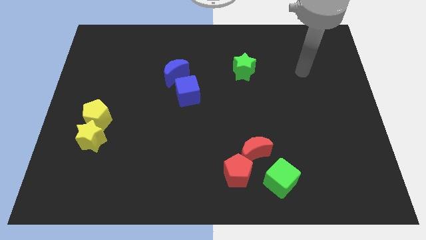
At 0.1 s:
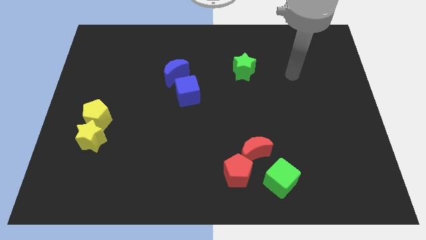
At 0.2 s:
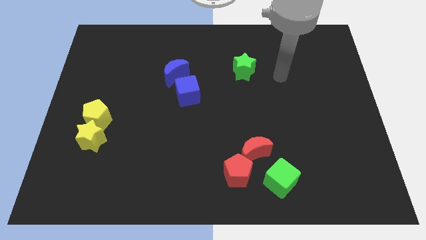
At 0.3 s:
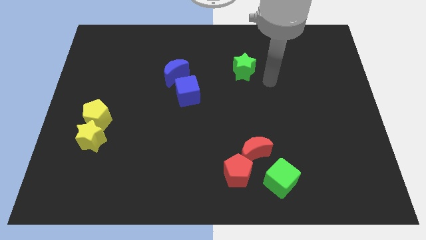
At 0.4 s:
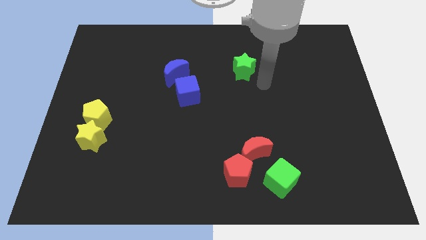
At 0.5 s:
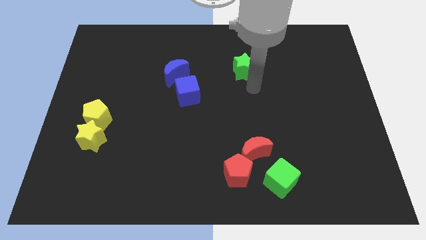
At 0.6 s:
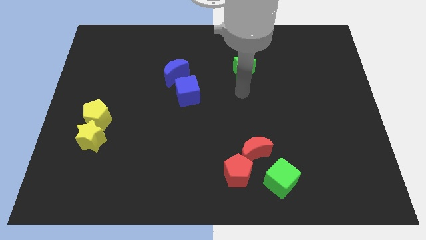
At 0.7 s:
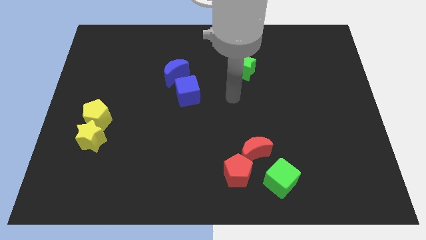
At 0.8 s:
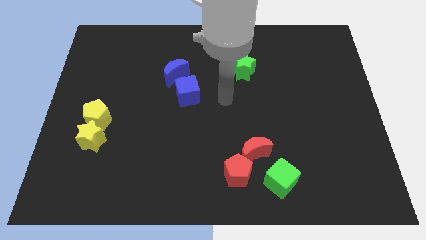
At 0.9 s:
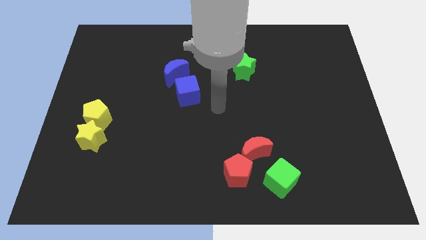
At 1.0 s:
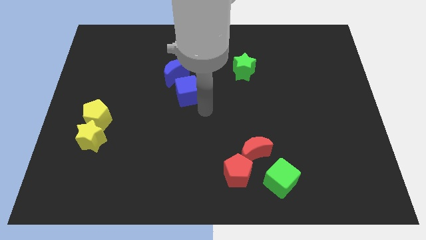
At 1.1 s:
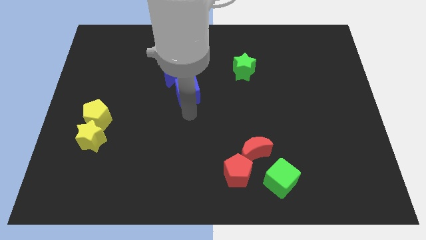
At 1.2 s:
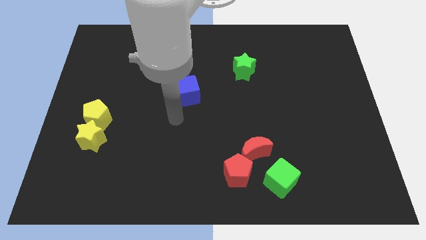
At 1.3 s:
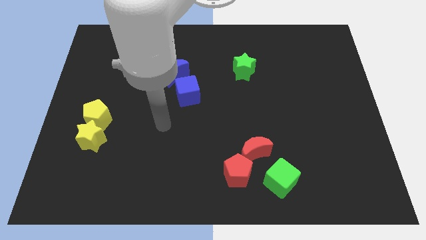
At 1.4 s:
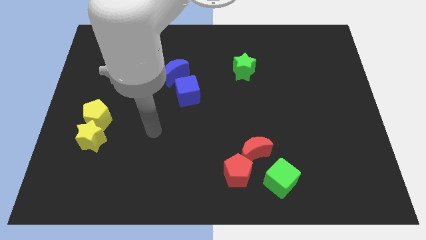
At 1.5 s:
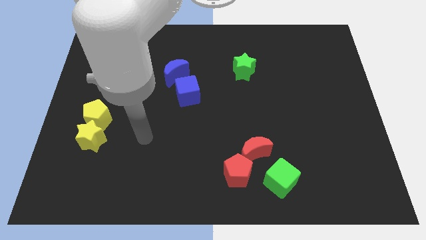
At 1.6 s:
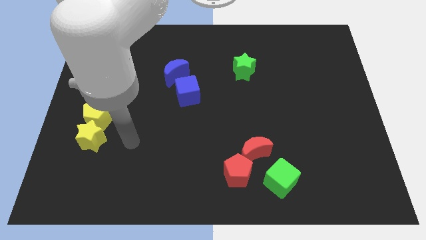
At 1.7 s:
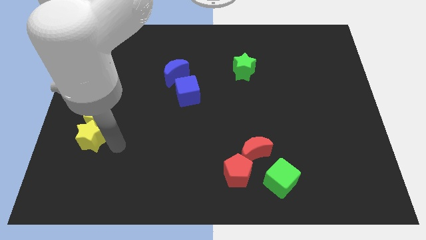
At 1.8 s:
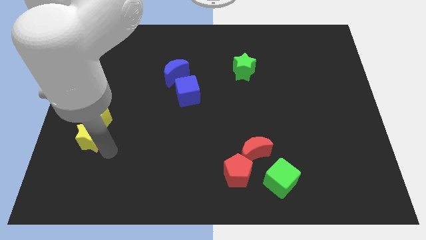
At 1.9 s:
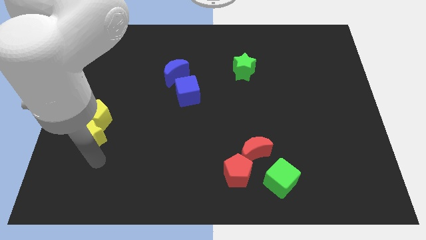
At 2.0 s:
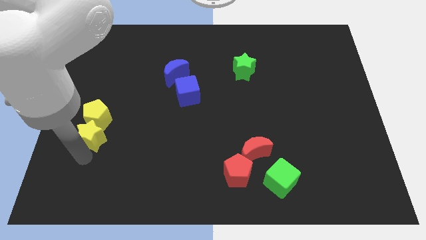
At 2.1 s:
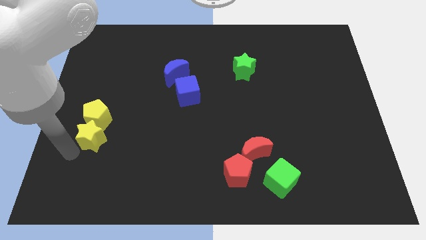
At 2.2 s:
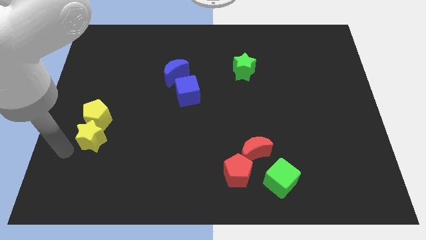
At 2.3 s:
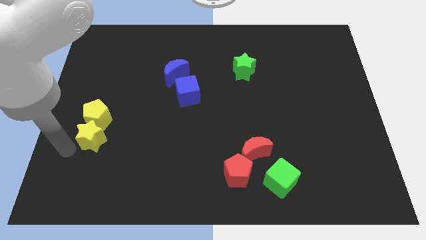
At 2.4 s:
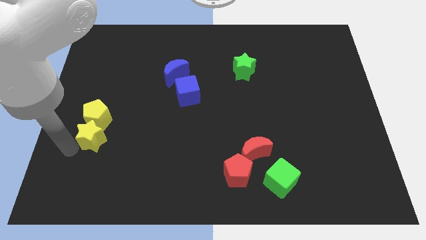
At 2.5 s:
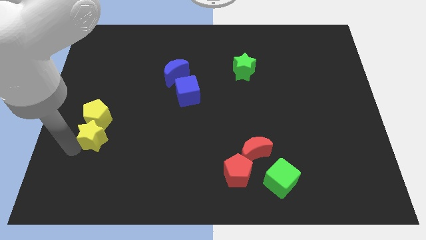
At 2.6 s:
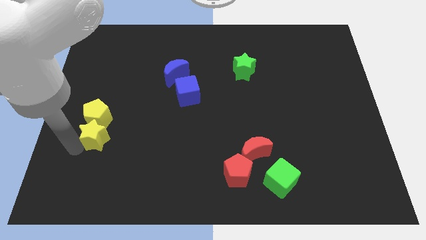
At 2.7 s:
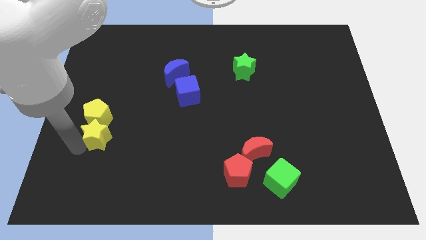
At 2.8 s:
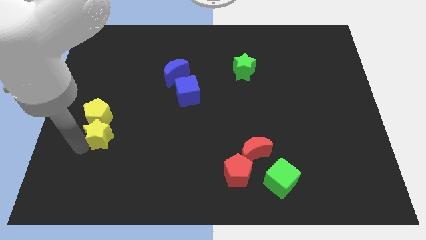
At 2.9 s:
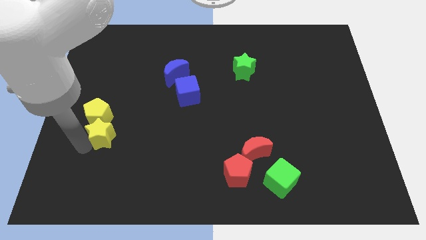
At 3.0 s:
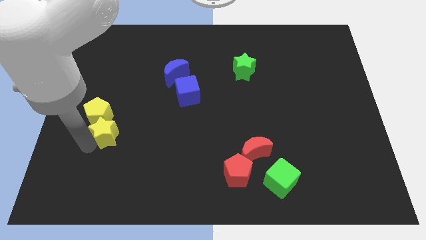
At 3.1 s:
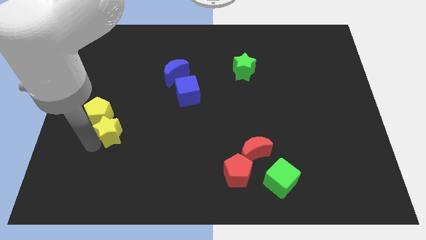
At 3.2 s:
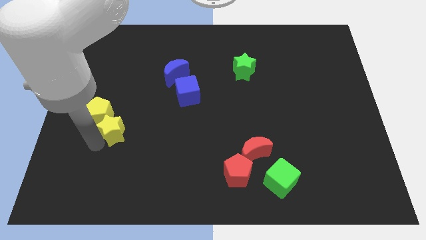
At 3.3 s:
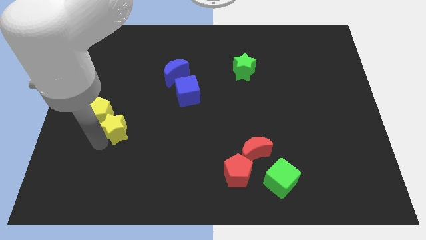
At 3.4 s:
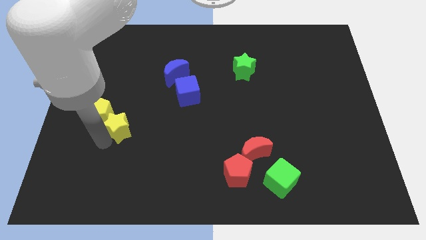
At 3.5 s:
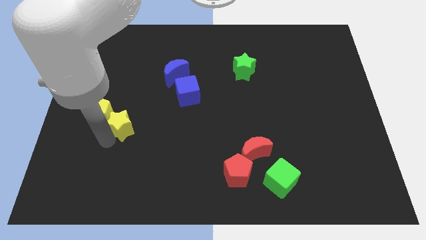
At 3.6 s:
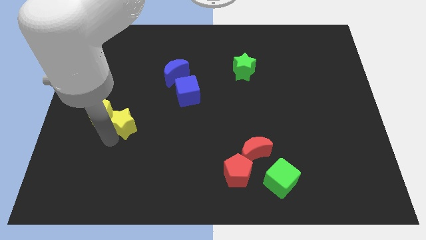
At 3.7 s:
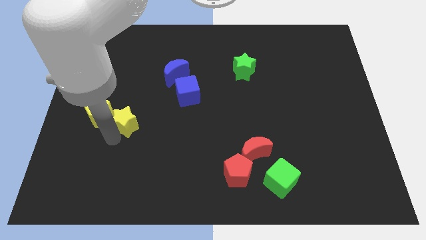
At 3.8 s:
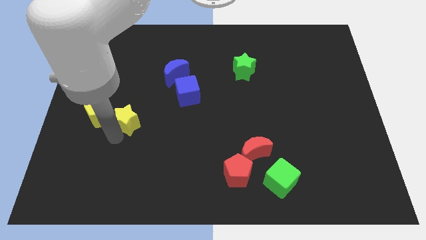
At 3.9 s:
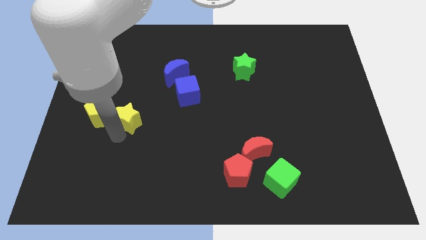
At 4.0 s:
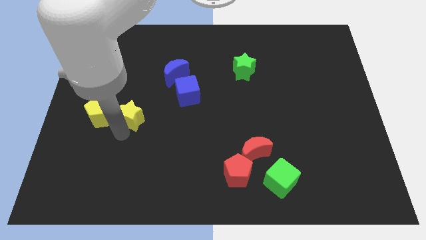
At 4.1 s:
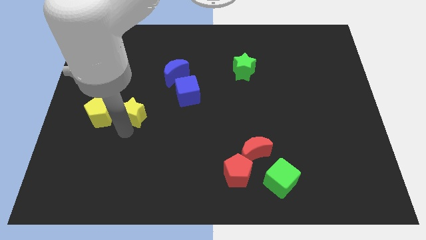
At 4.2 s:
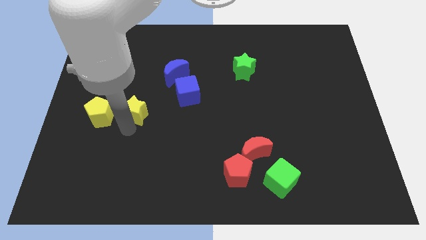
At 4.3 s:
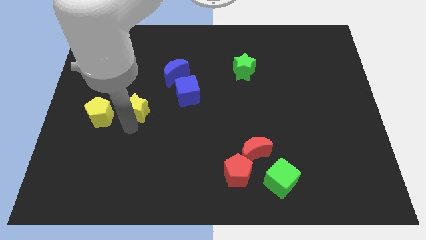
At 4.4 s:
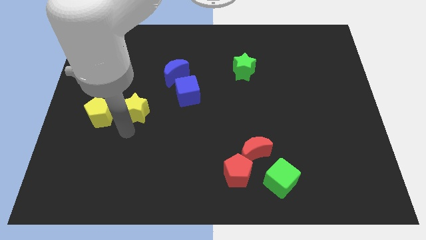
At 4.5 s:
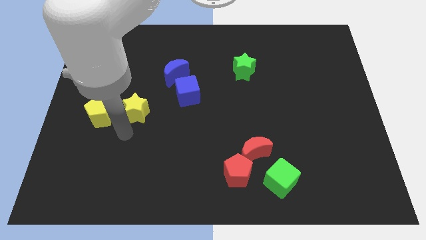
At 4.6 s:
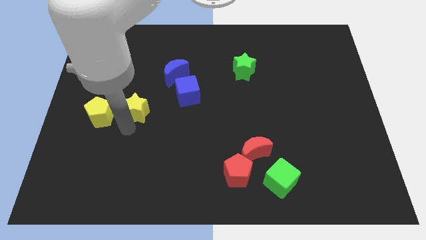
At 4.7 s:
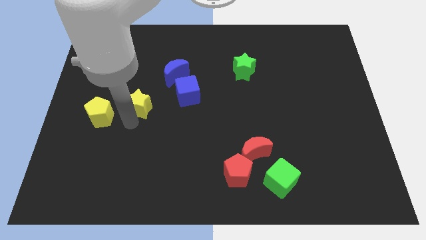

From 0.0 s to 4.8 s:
slide the yellow star just left of the blue cube

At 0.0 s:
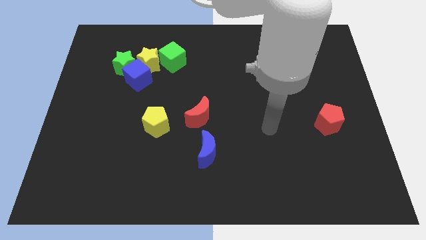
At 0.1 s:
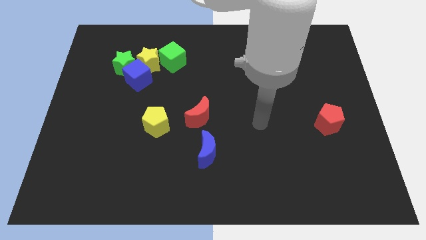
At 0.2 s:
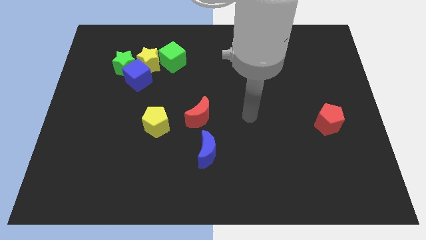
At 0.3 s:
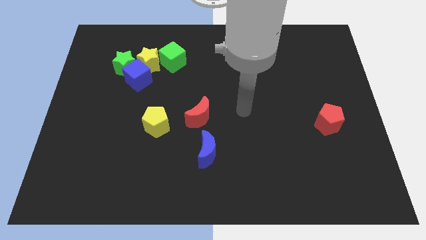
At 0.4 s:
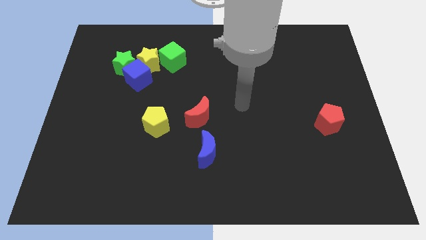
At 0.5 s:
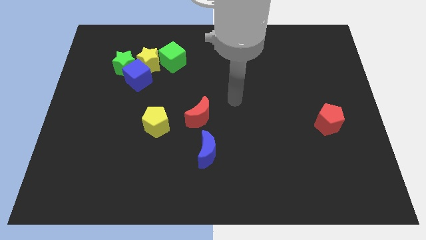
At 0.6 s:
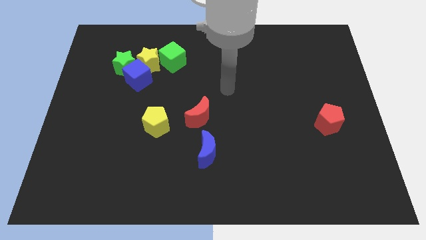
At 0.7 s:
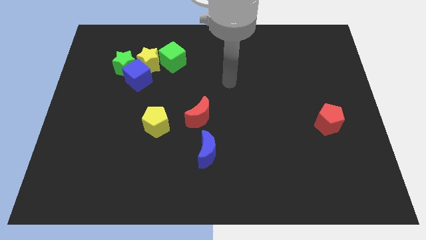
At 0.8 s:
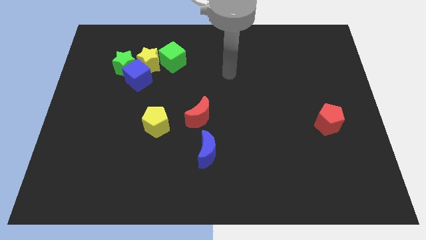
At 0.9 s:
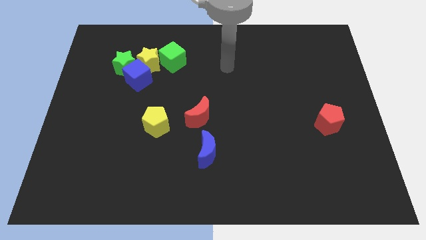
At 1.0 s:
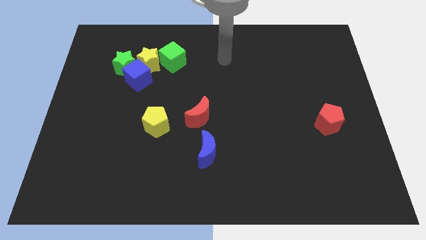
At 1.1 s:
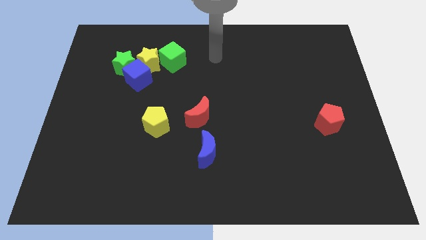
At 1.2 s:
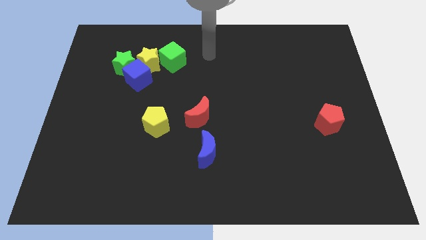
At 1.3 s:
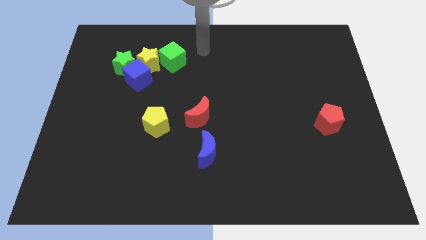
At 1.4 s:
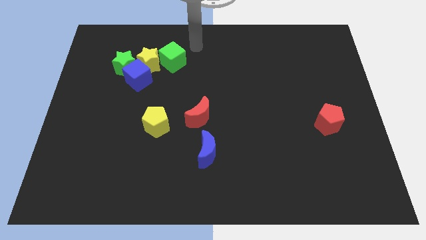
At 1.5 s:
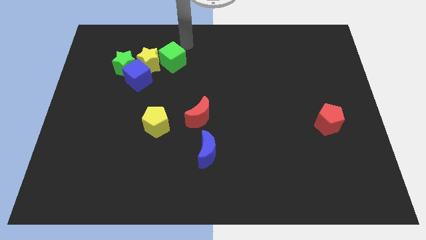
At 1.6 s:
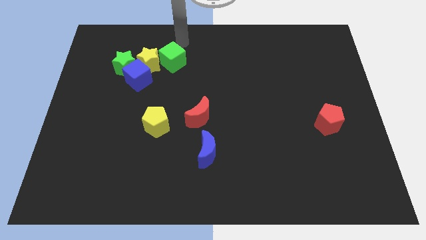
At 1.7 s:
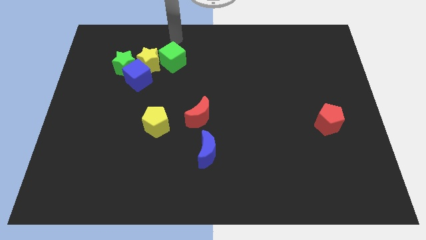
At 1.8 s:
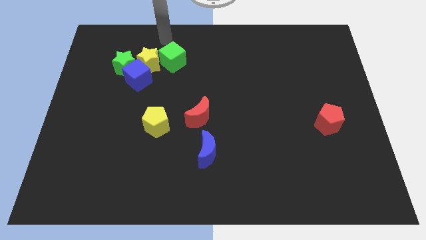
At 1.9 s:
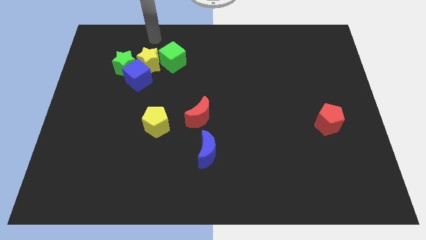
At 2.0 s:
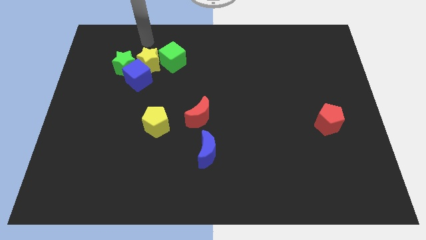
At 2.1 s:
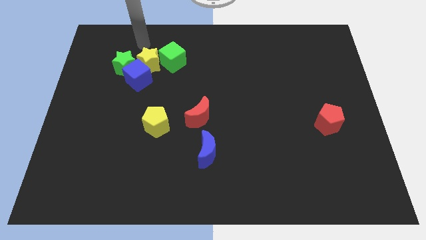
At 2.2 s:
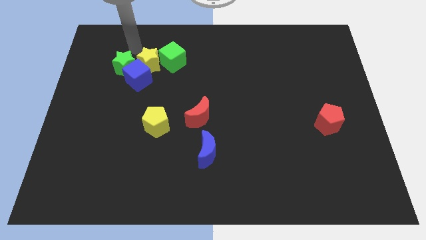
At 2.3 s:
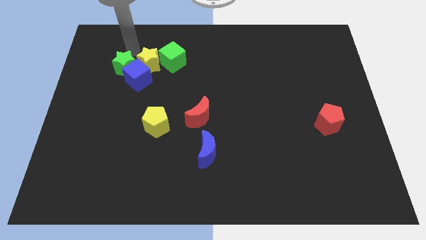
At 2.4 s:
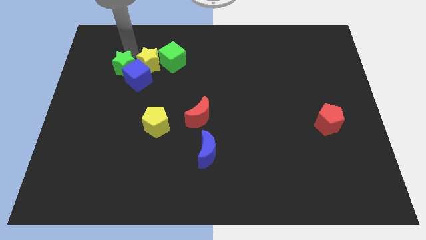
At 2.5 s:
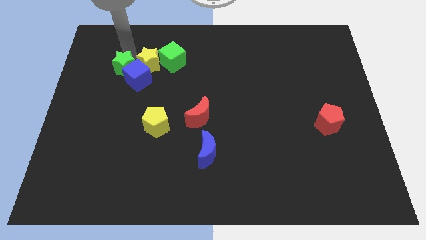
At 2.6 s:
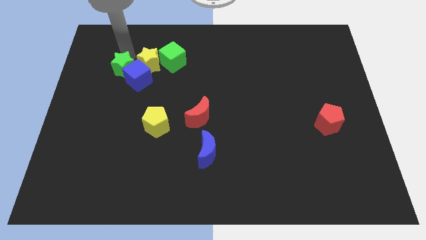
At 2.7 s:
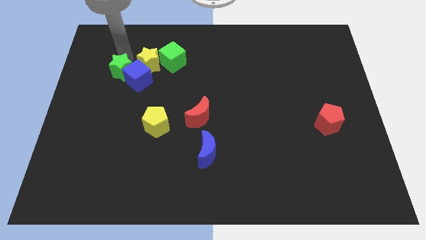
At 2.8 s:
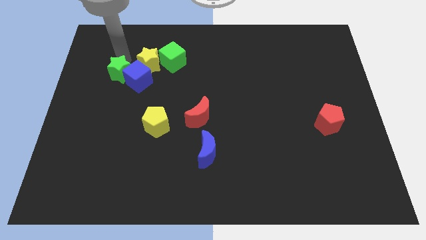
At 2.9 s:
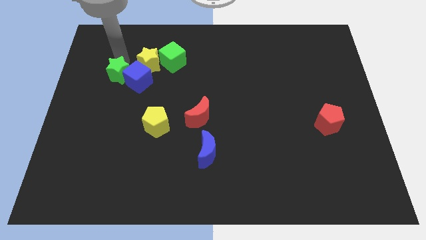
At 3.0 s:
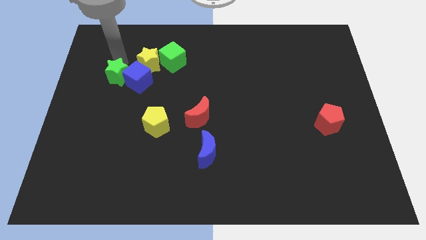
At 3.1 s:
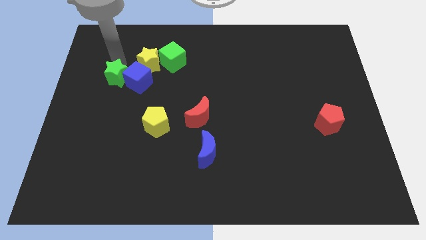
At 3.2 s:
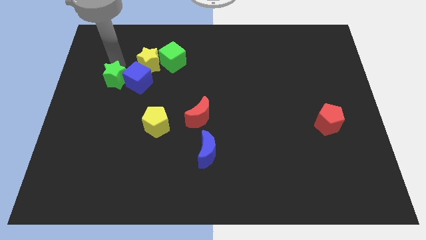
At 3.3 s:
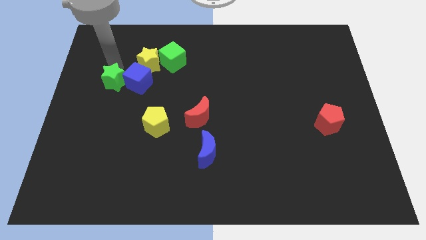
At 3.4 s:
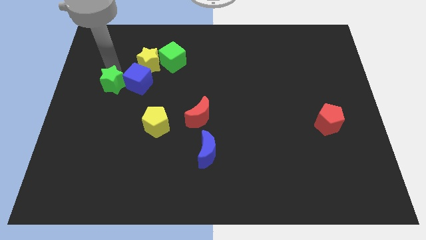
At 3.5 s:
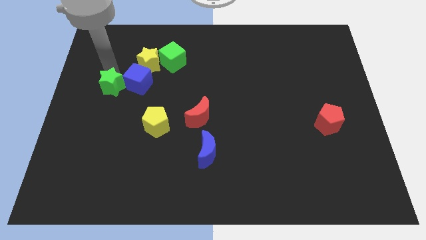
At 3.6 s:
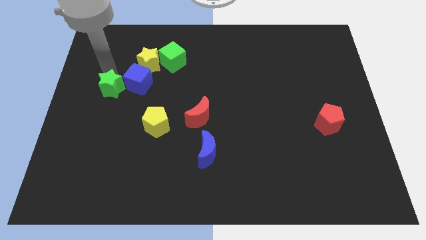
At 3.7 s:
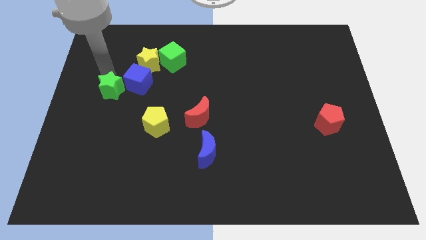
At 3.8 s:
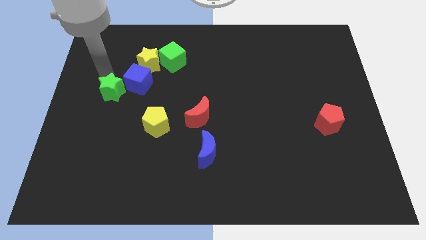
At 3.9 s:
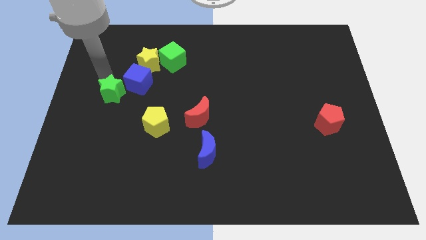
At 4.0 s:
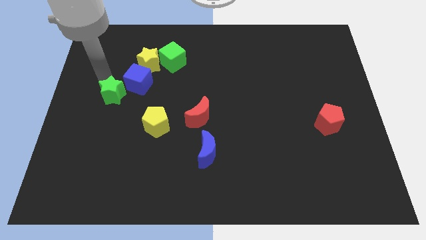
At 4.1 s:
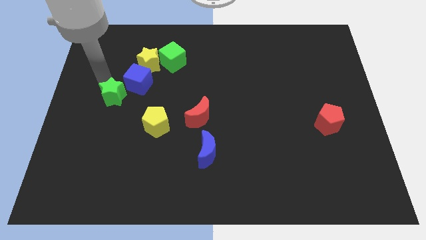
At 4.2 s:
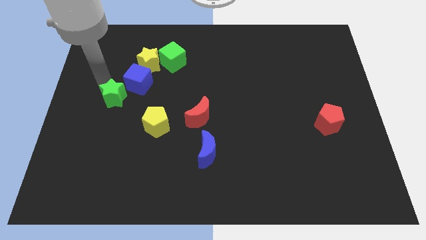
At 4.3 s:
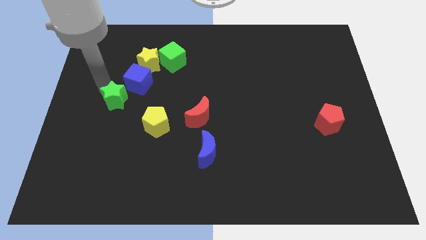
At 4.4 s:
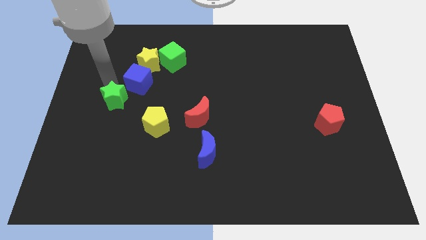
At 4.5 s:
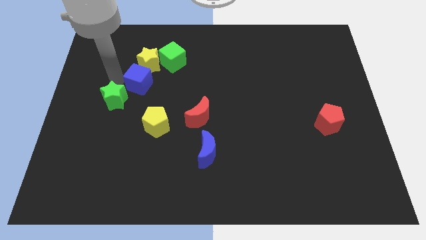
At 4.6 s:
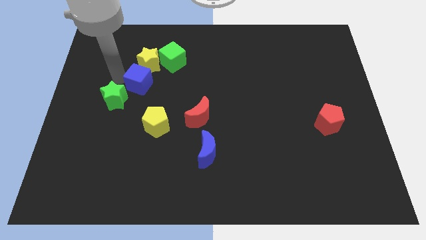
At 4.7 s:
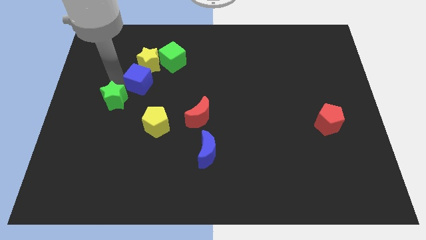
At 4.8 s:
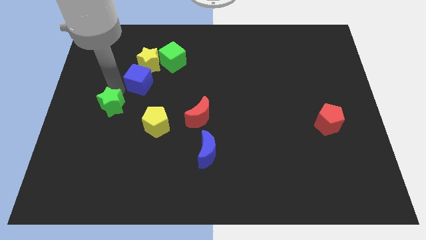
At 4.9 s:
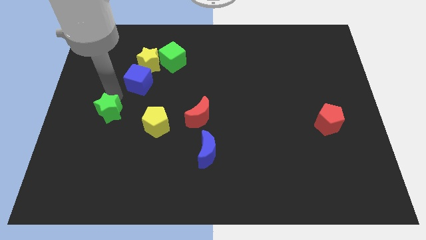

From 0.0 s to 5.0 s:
put the green star just left of the yellow pentagon
